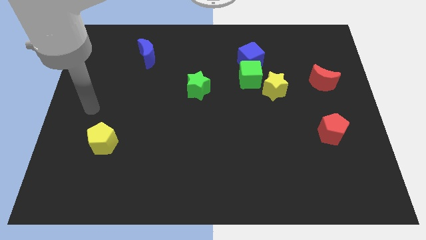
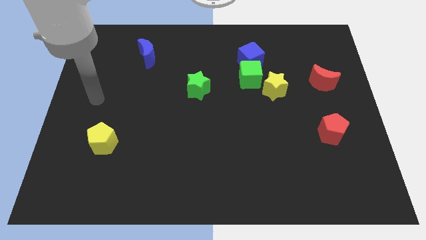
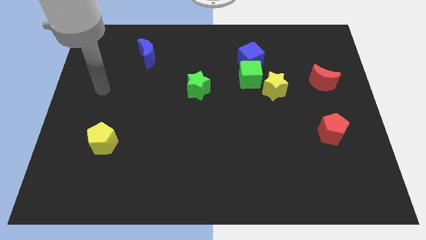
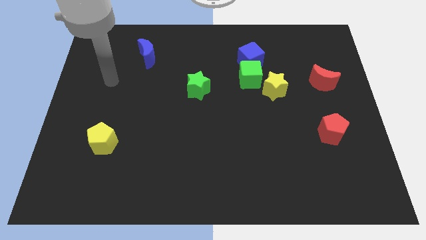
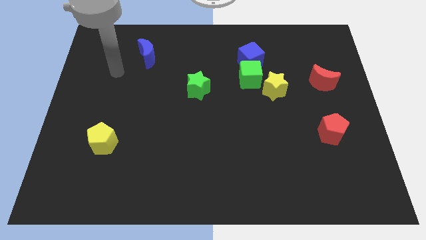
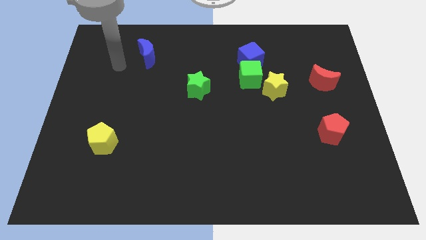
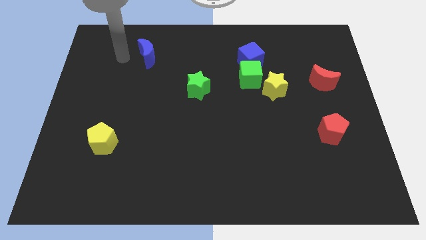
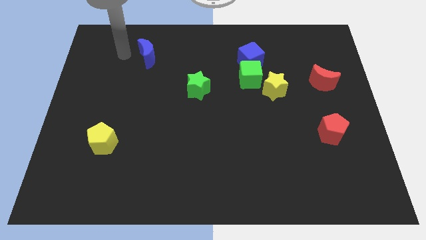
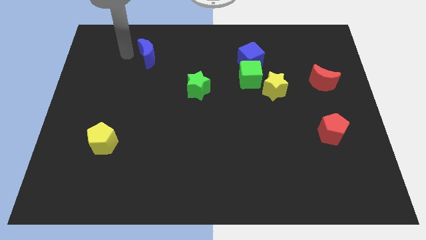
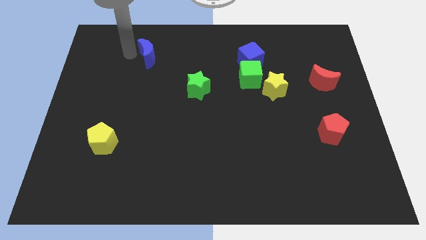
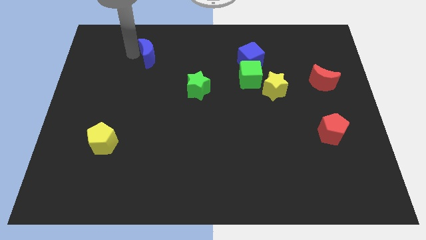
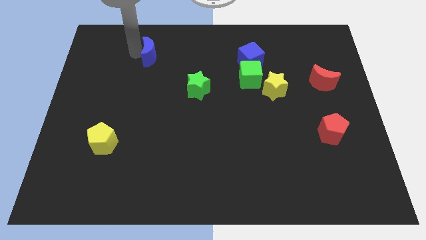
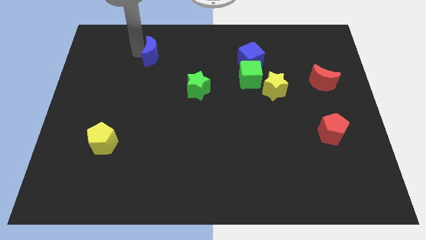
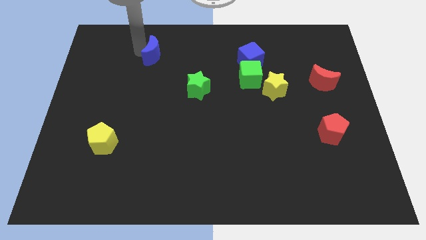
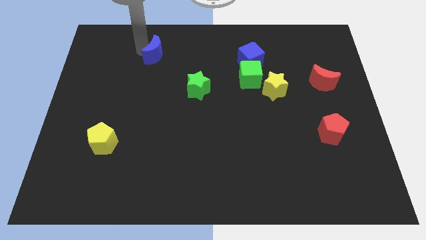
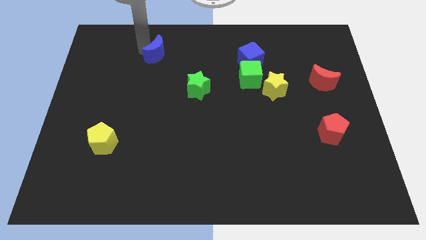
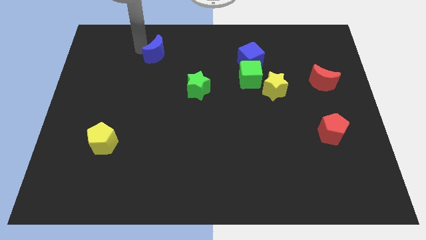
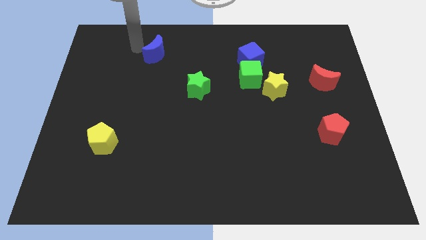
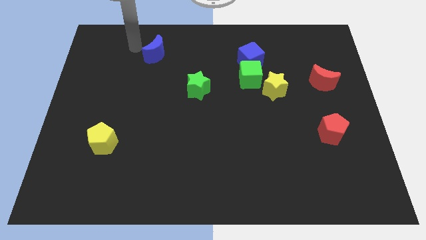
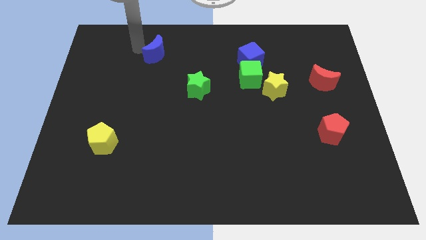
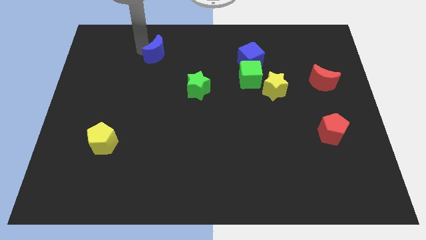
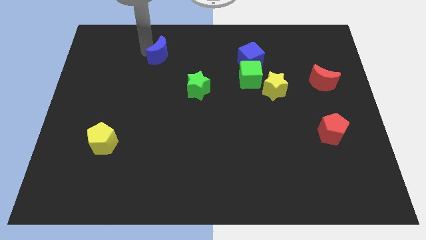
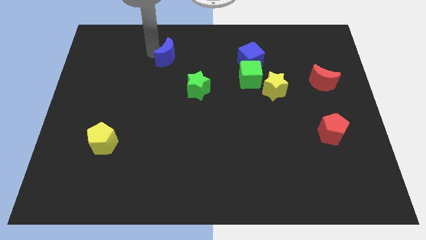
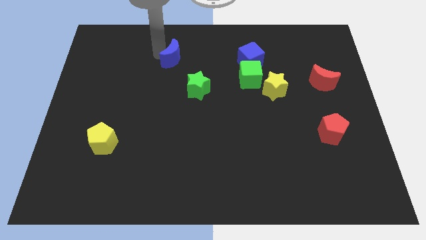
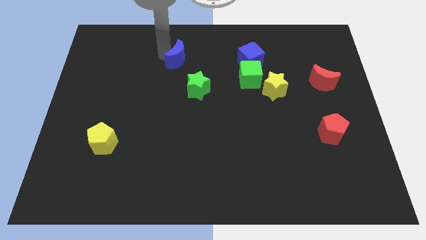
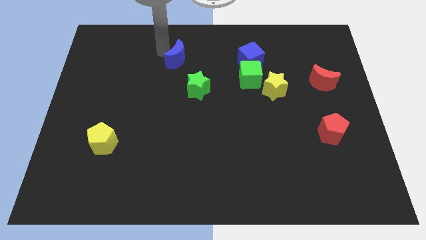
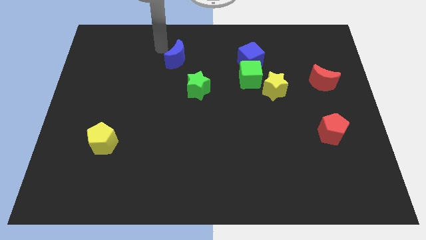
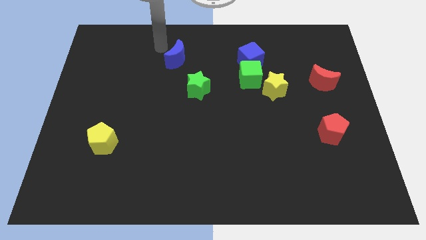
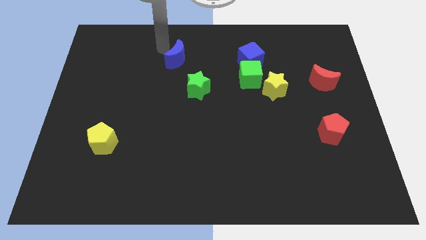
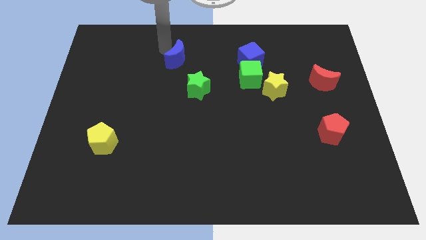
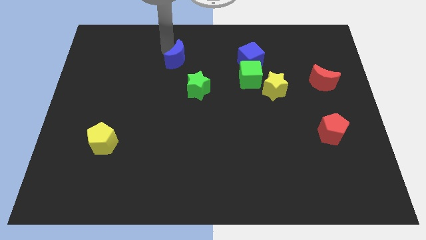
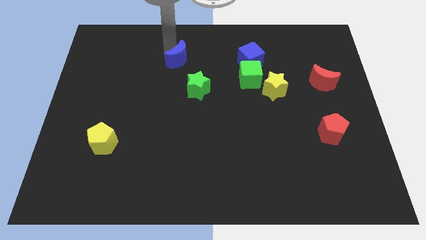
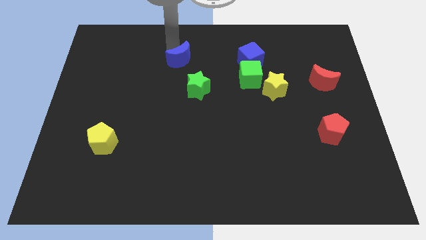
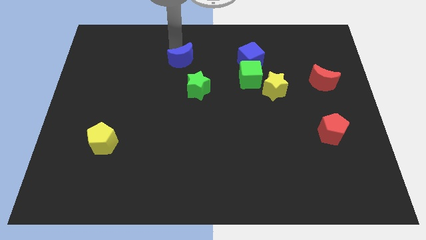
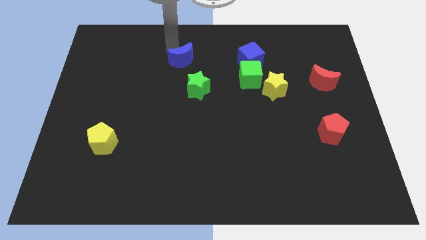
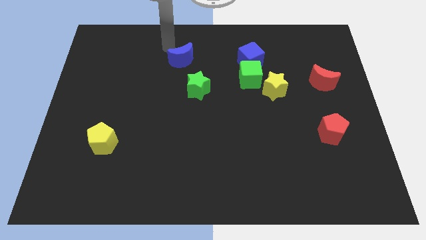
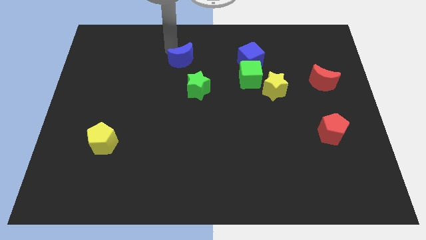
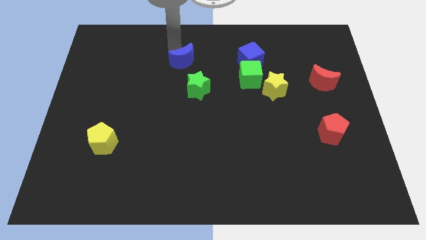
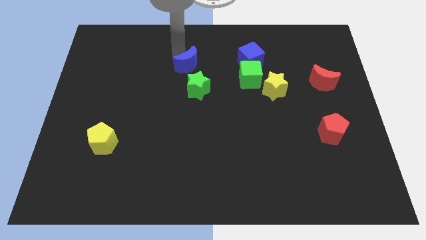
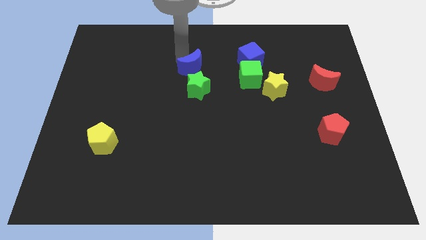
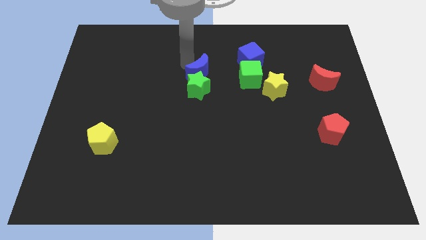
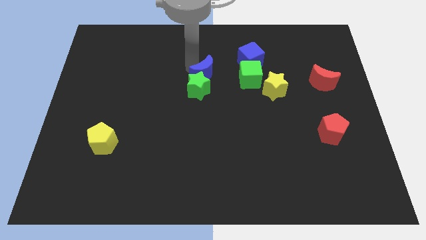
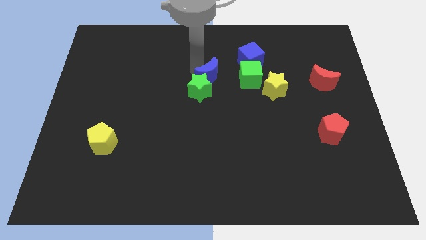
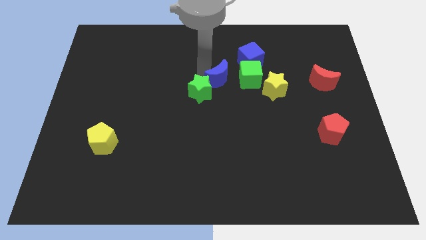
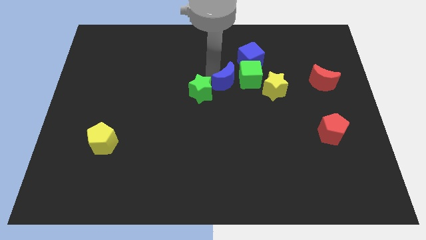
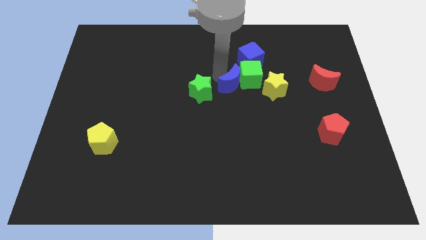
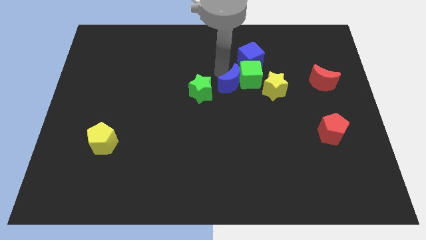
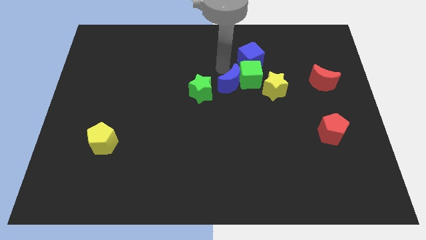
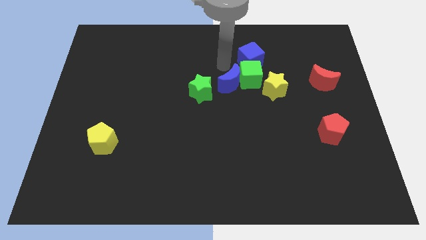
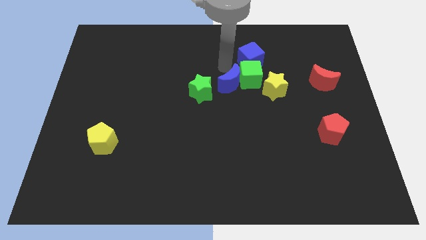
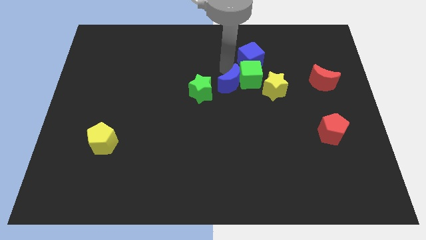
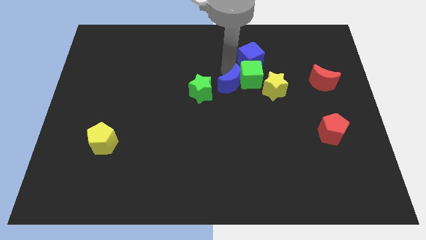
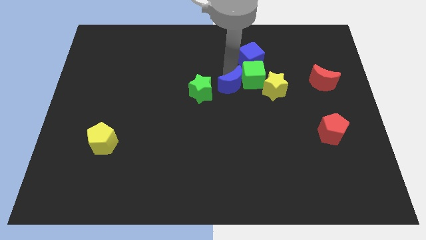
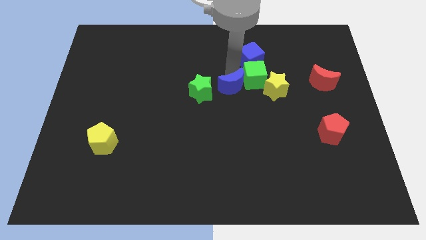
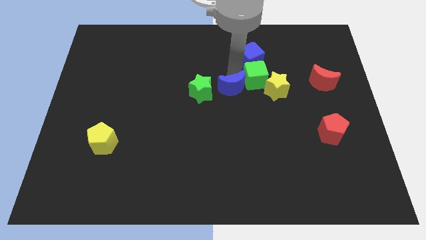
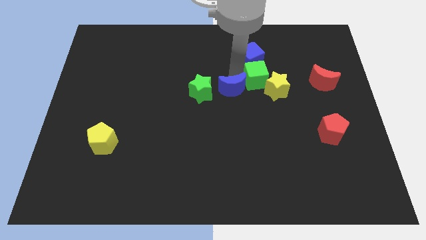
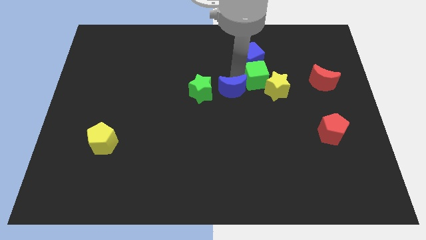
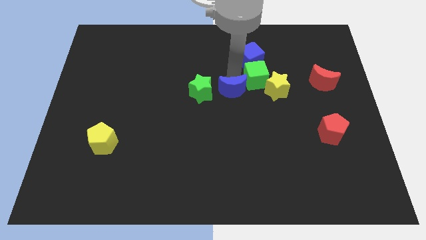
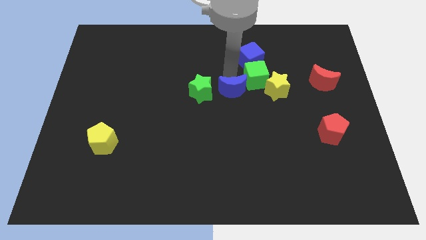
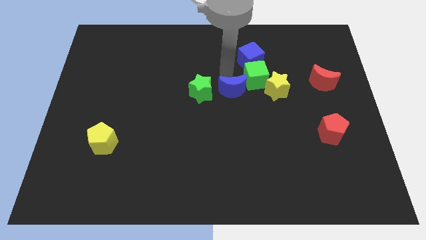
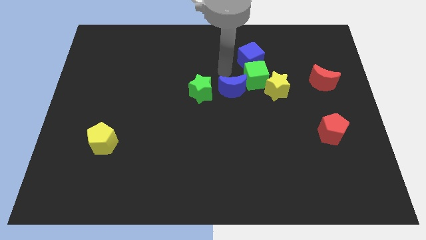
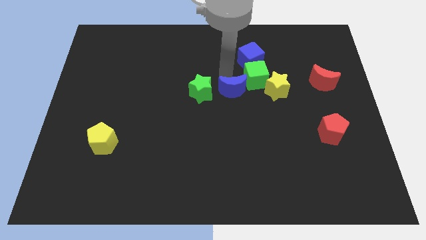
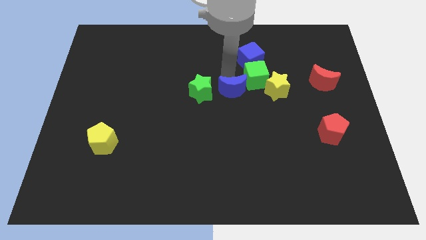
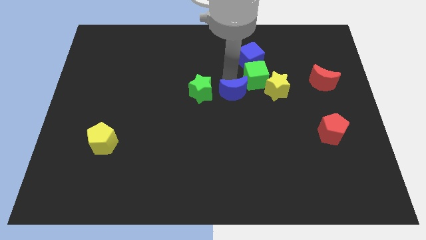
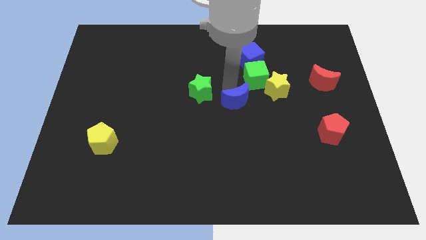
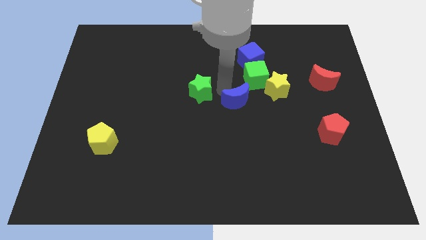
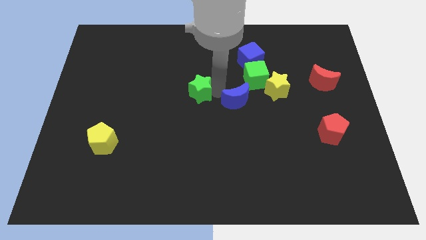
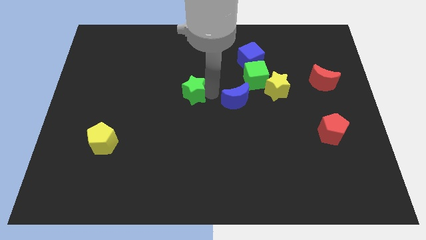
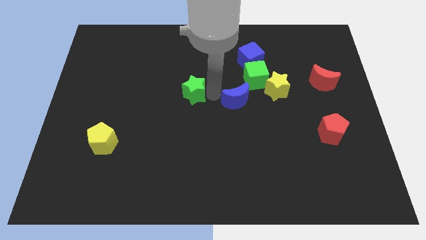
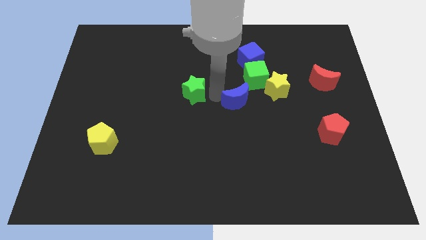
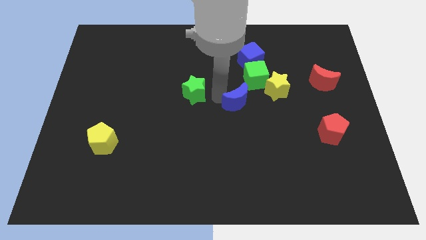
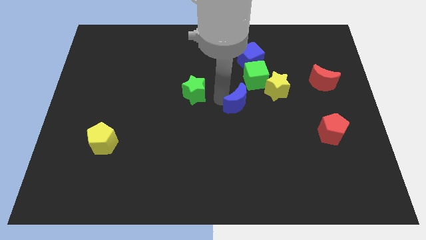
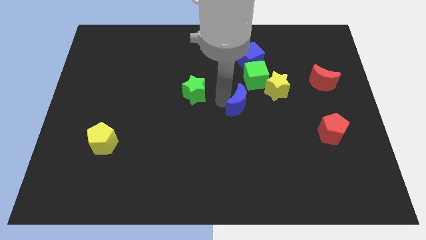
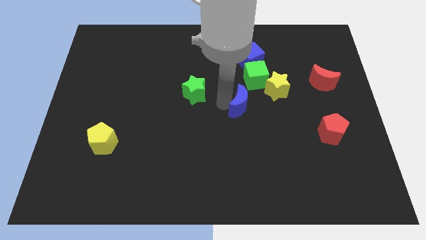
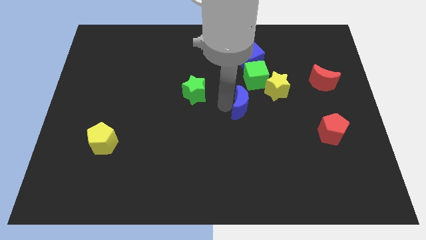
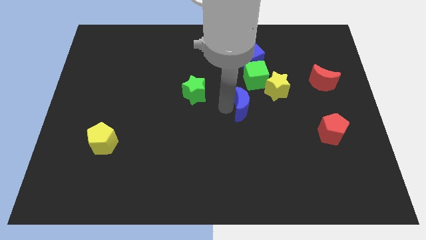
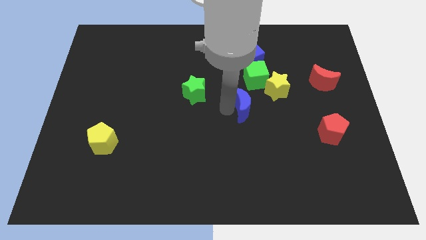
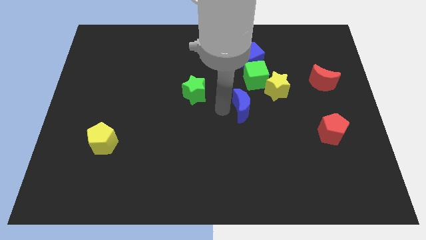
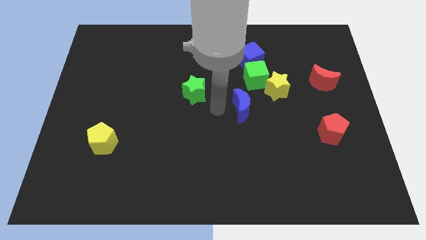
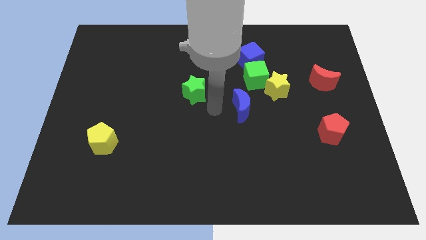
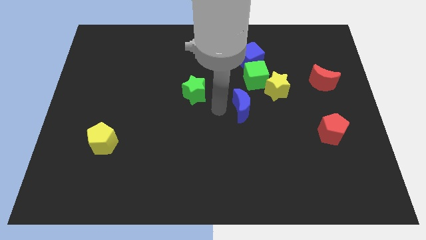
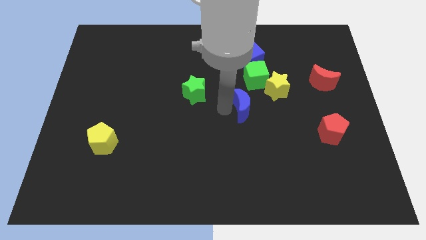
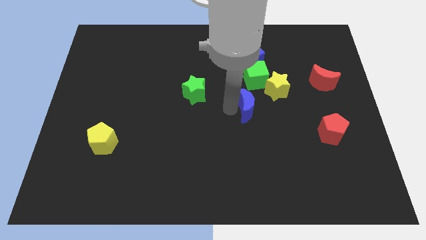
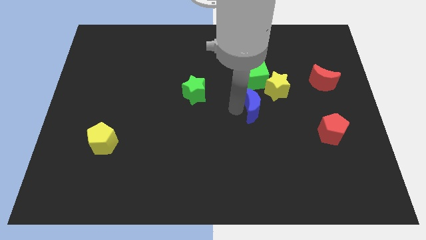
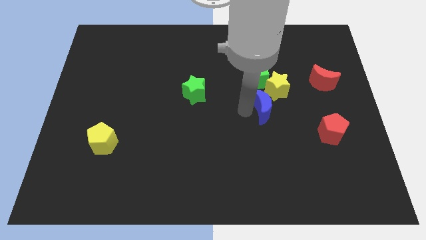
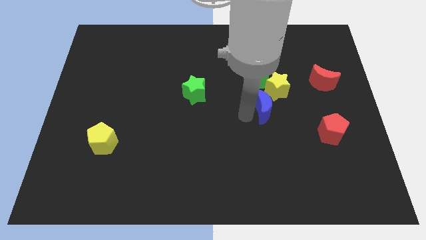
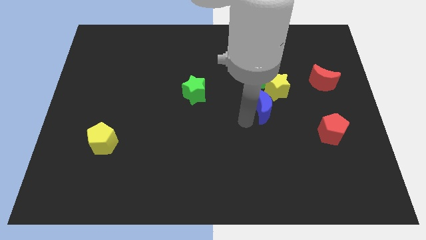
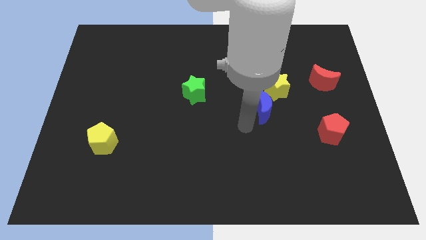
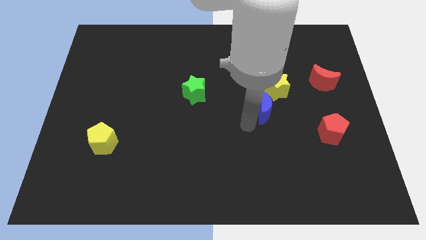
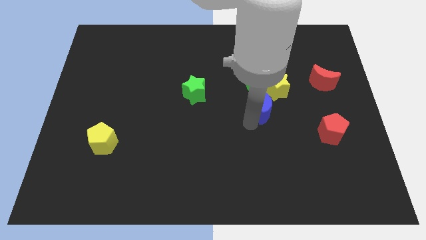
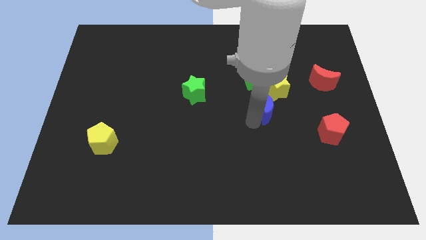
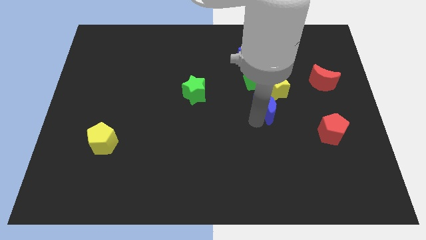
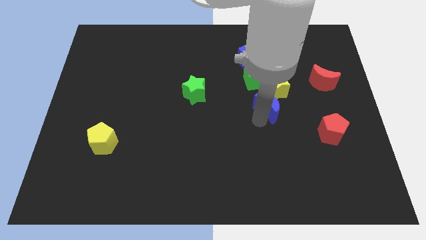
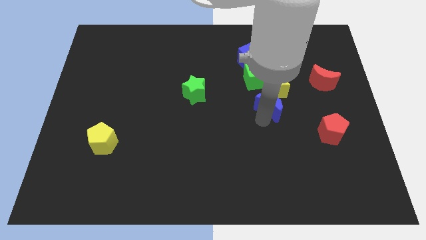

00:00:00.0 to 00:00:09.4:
slide the blue moon diagonally down and to the right of the green cube
